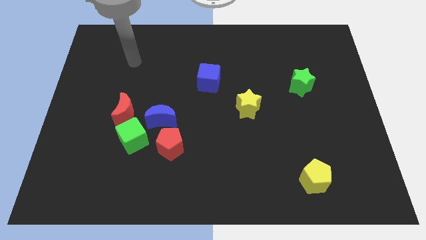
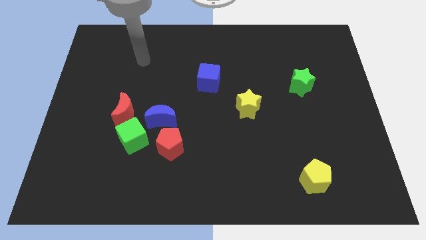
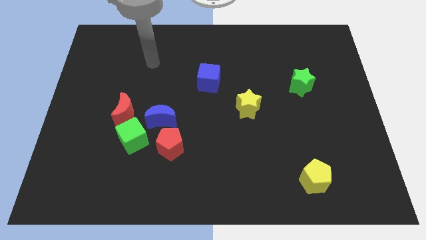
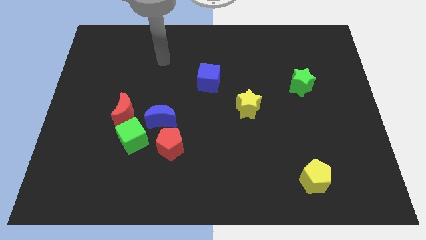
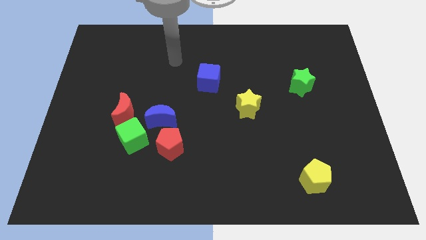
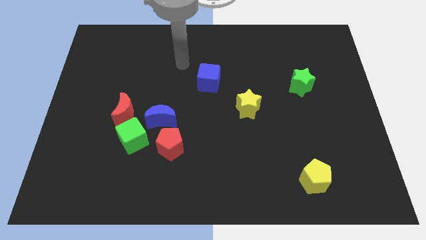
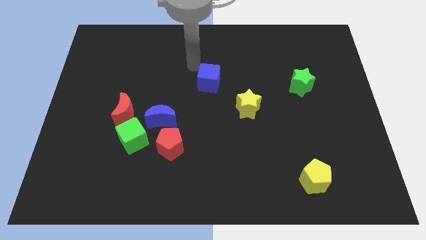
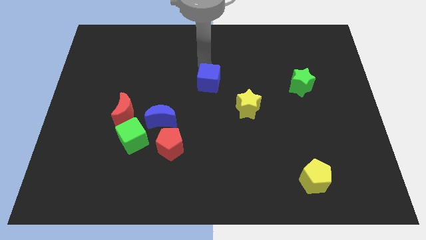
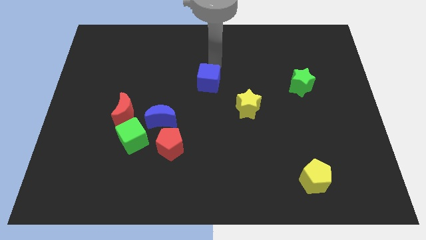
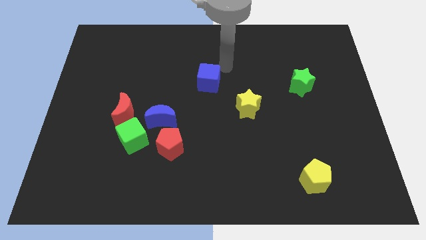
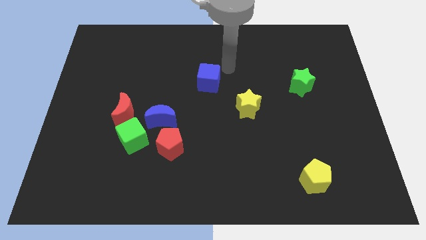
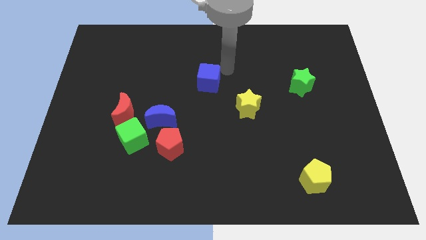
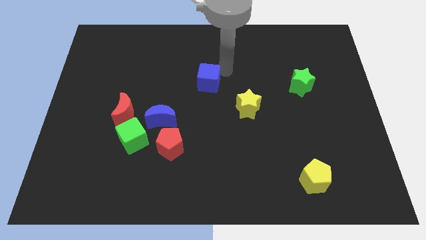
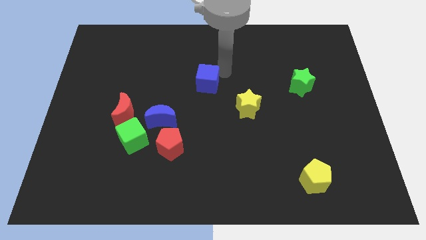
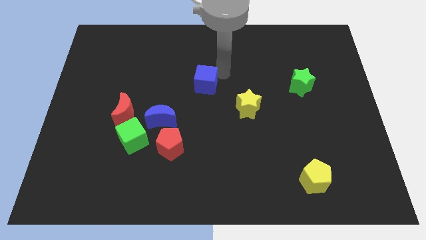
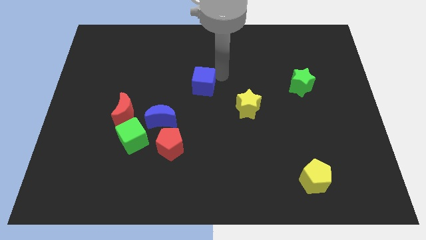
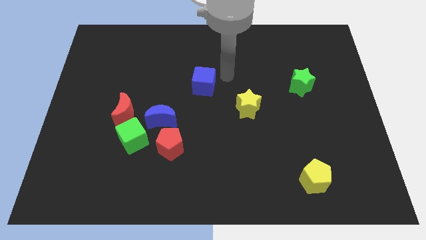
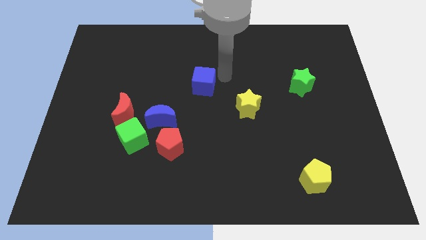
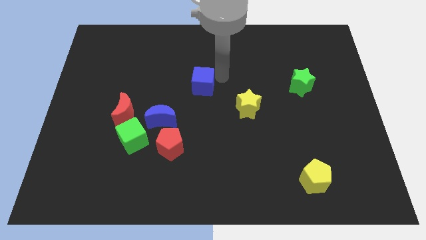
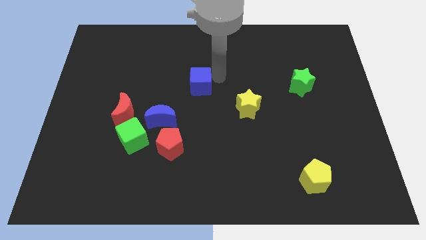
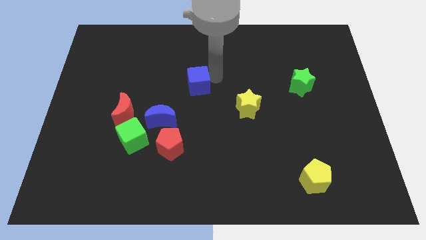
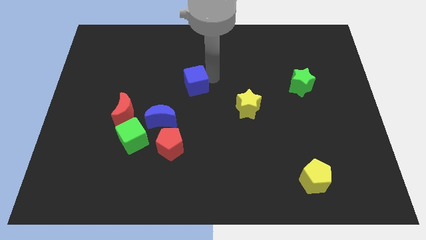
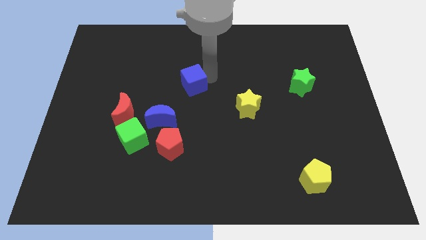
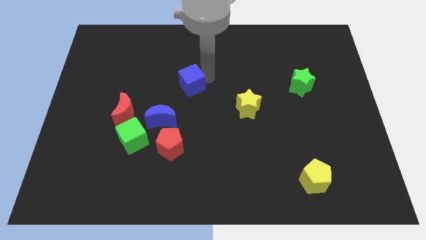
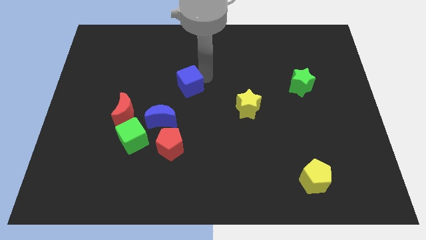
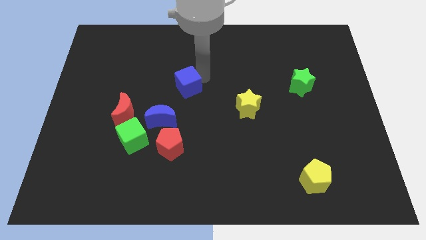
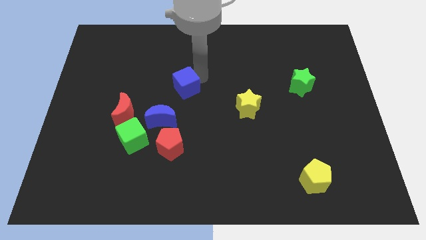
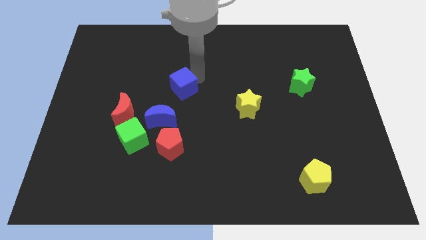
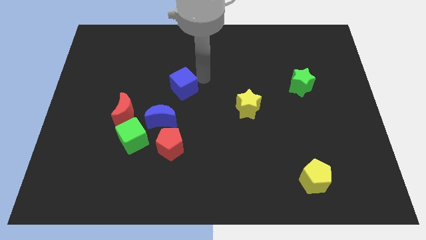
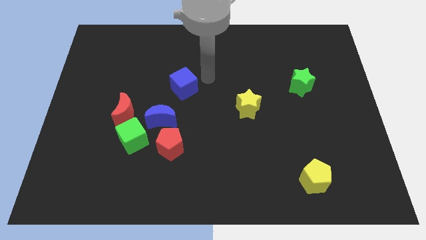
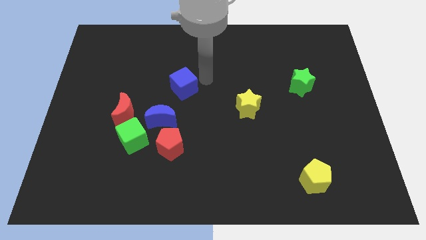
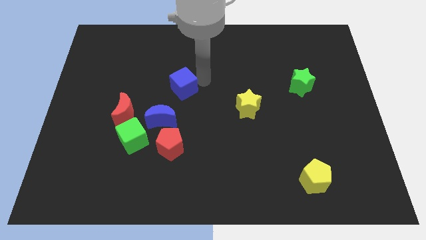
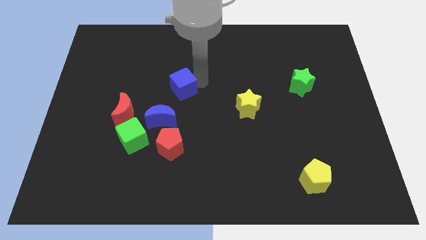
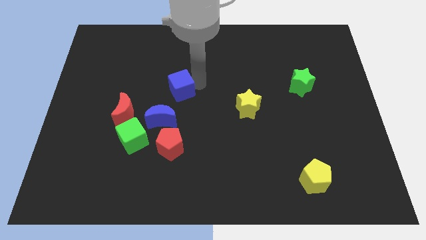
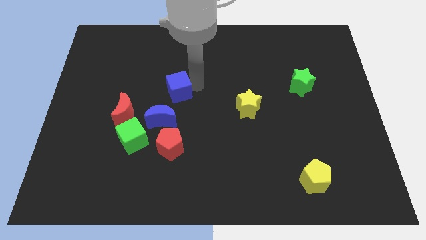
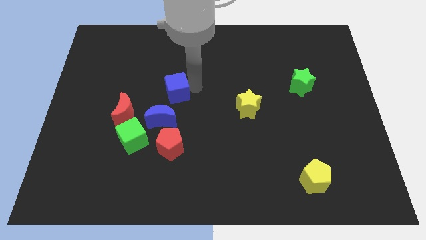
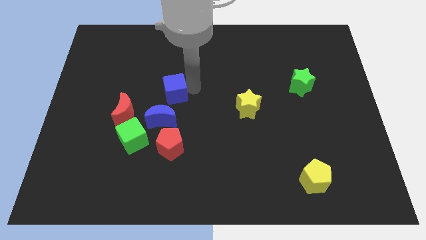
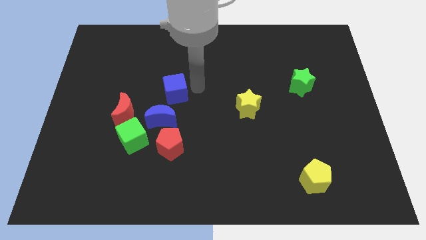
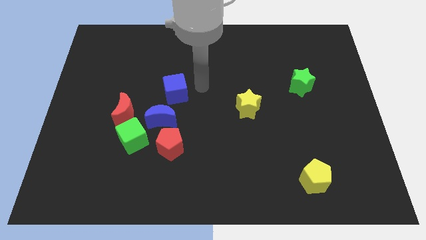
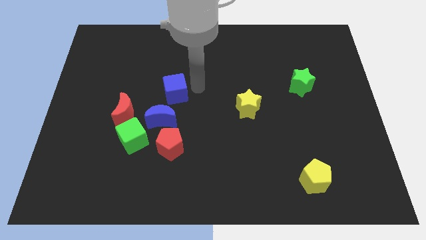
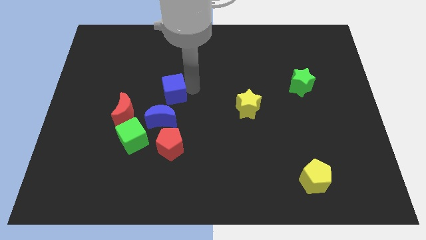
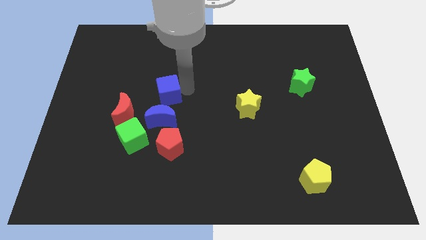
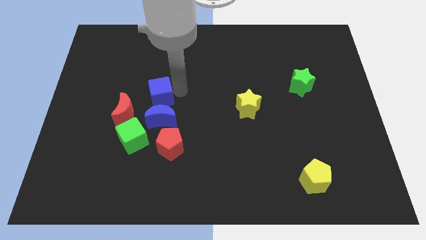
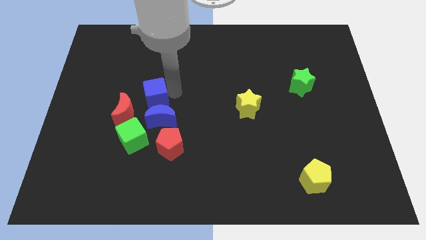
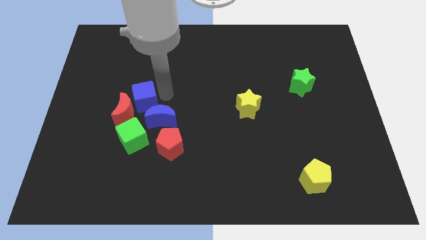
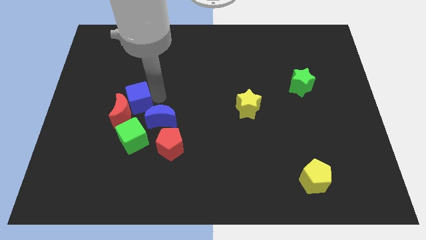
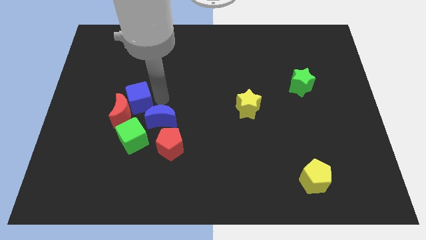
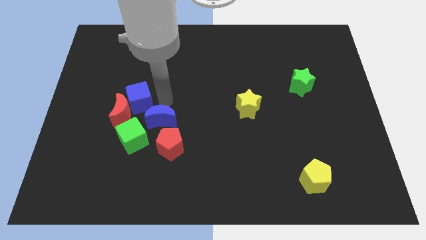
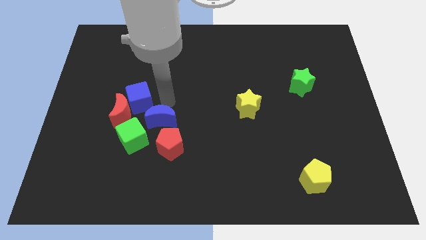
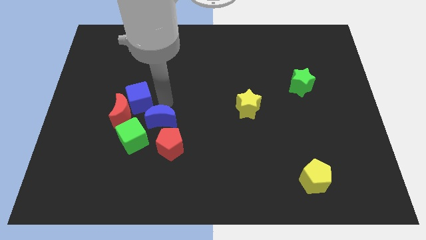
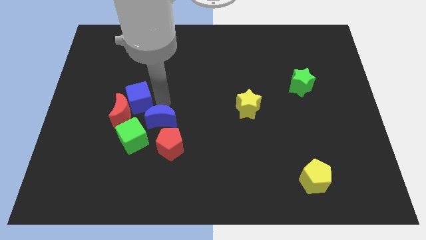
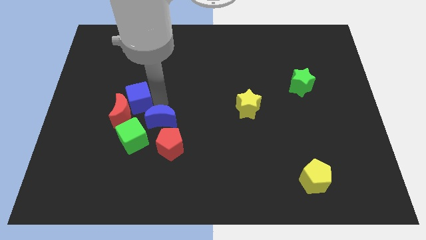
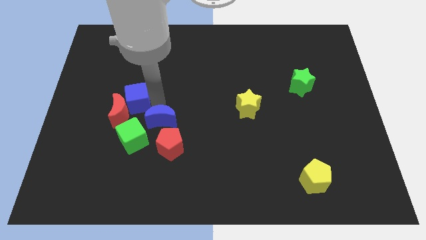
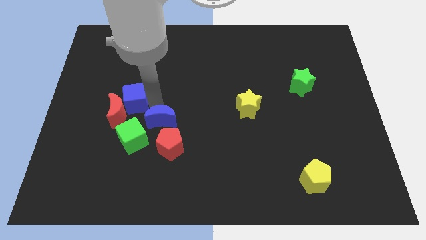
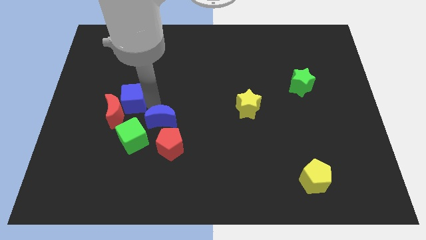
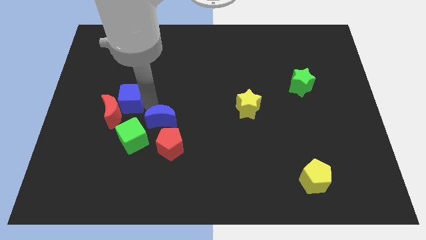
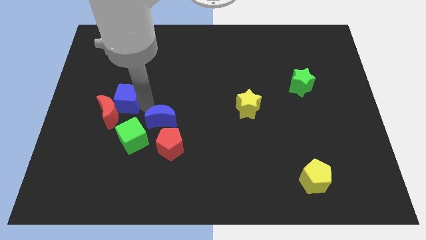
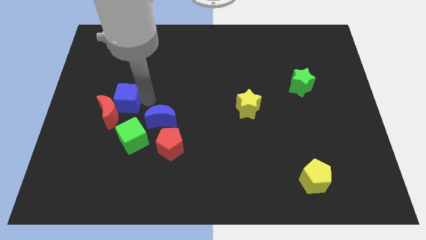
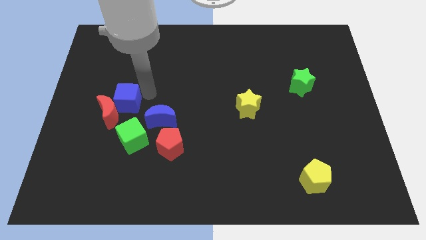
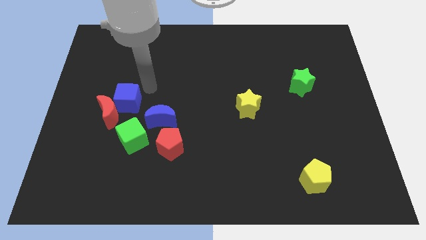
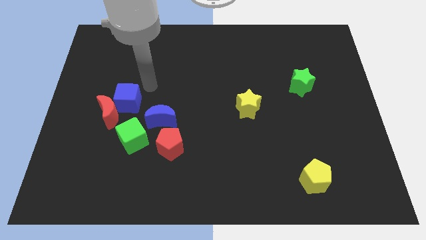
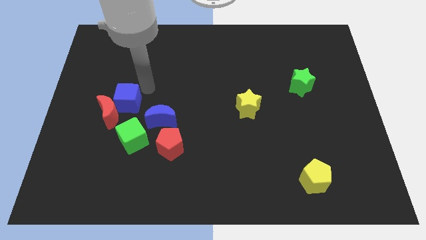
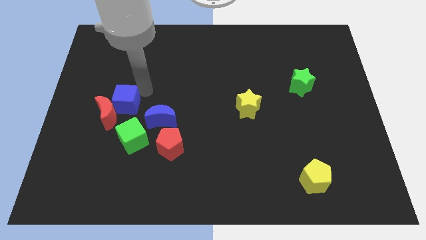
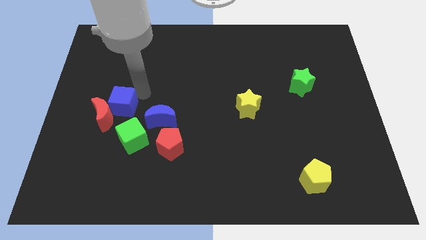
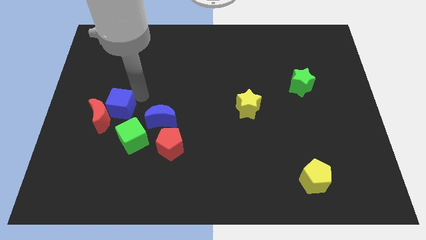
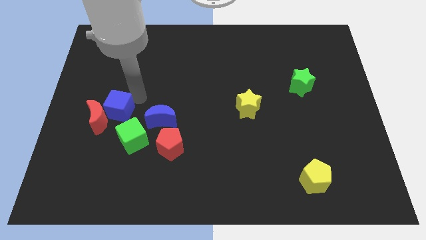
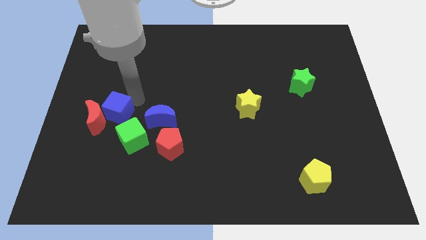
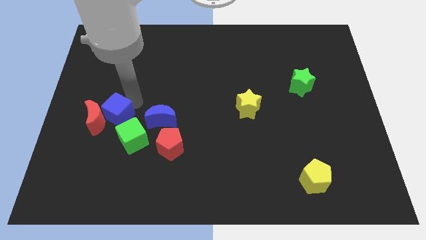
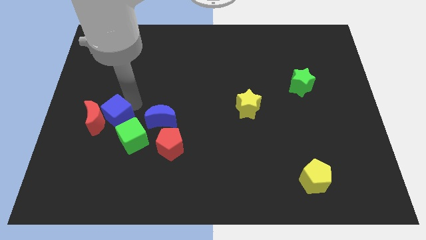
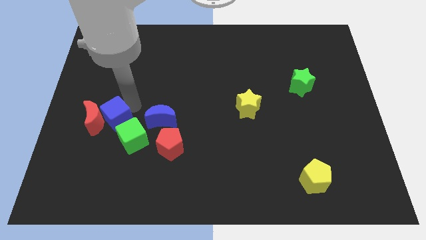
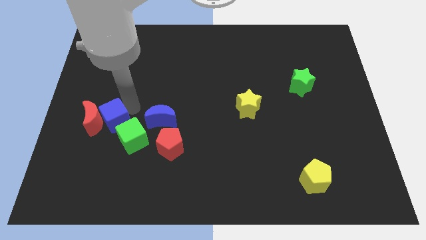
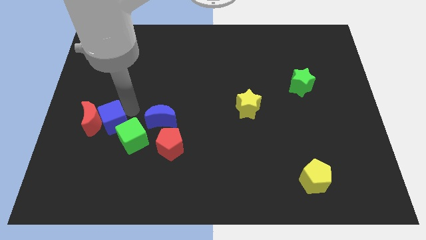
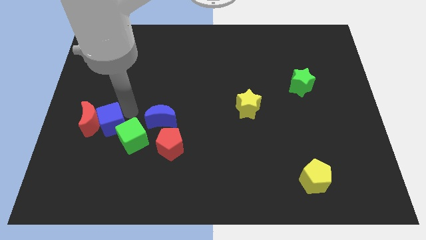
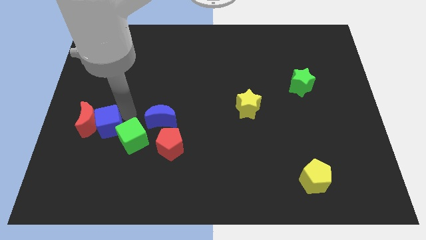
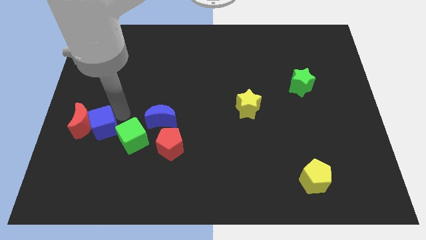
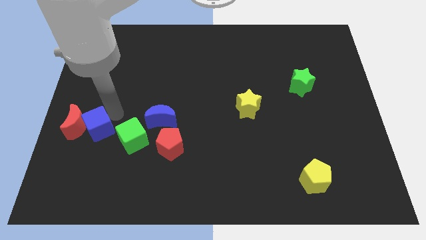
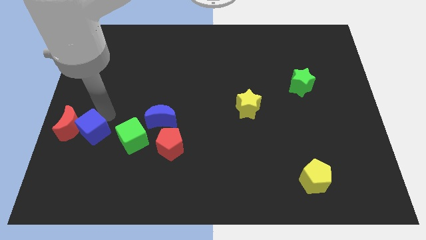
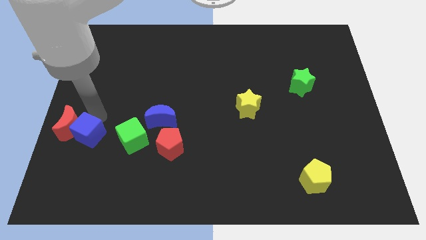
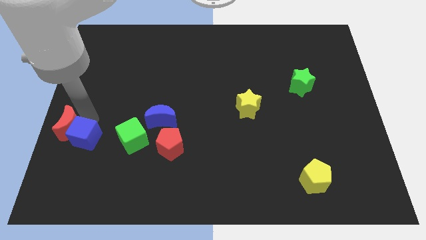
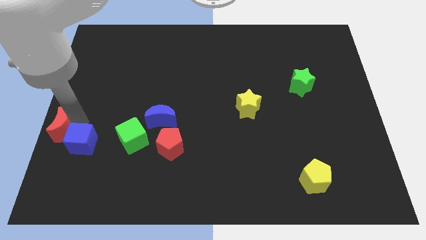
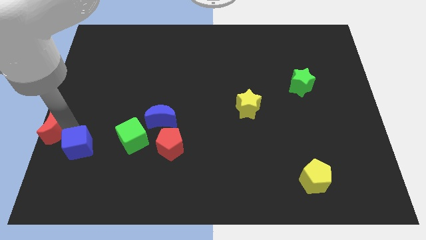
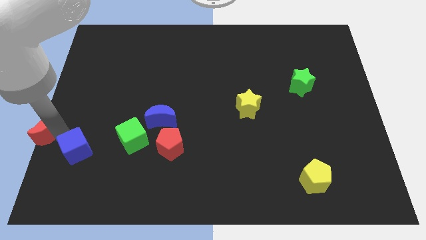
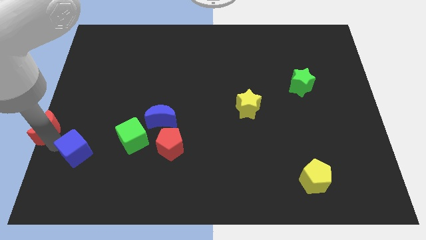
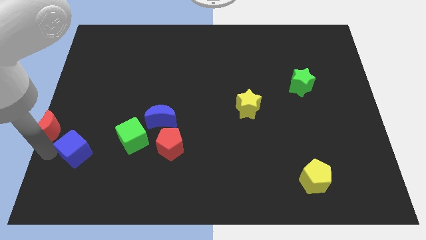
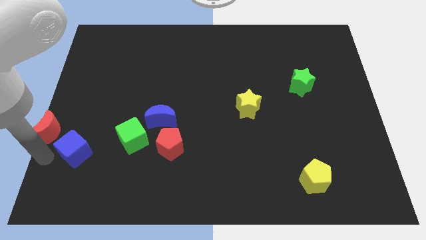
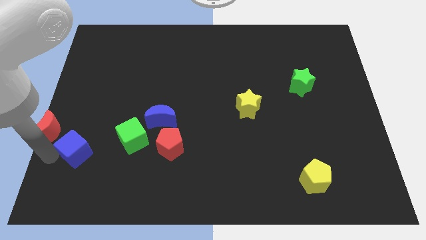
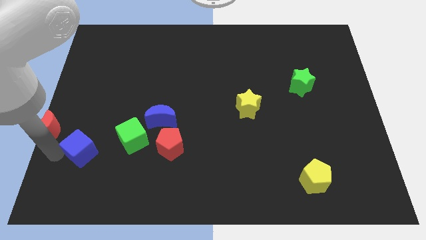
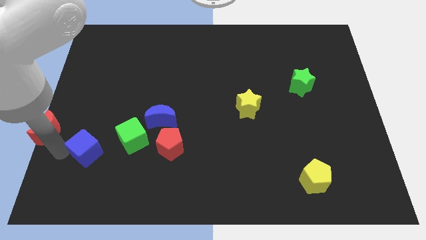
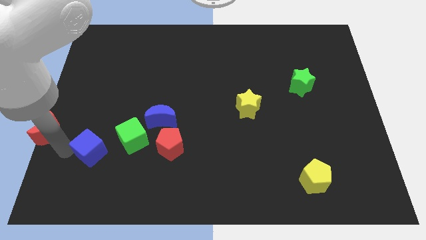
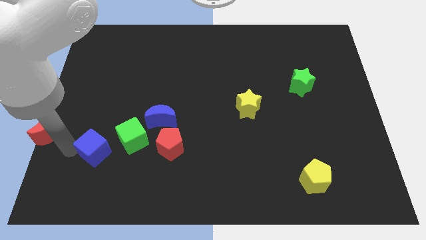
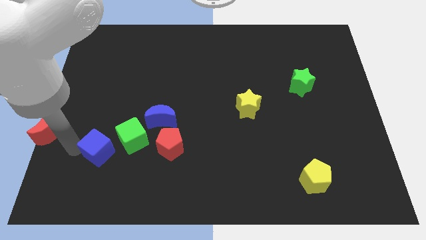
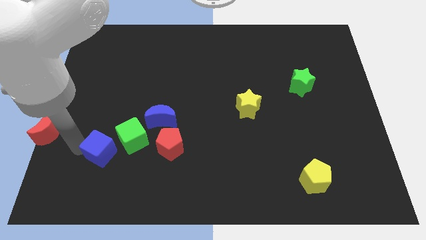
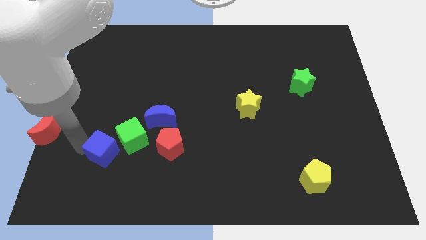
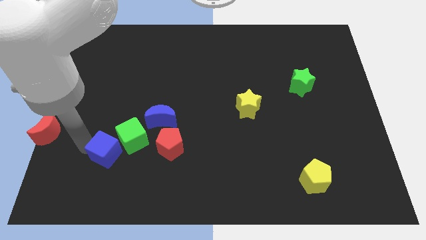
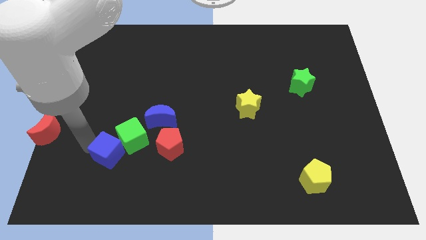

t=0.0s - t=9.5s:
push the blue cube close to the green cube
